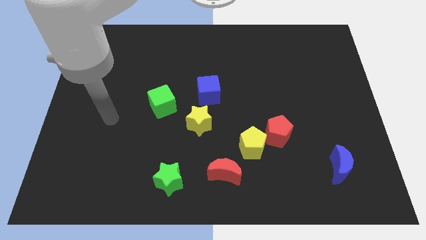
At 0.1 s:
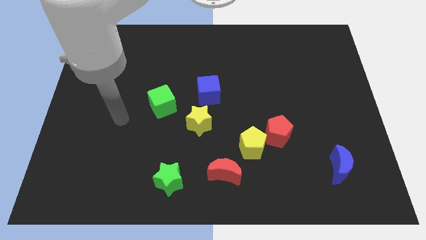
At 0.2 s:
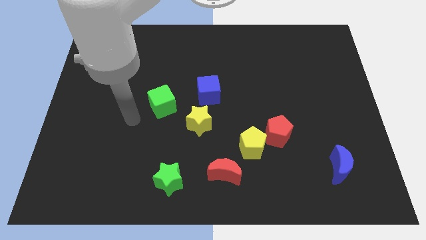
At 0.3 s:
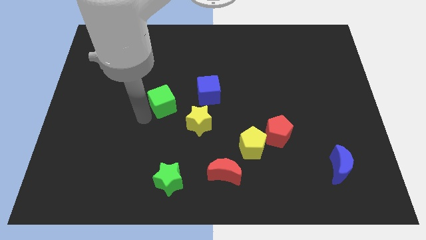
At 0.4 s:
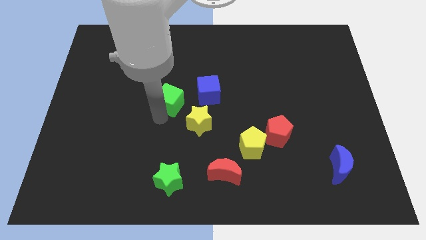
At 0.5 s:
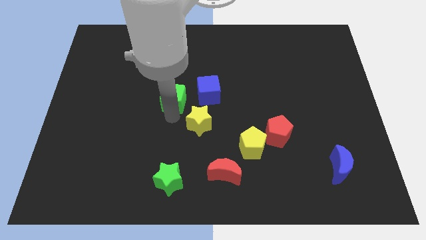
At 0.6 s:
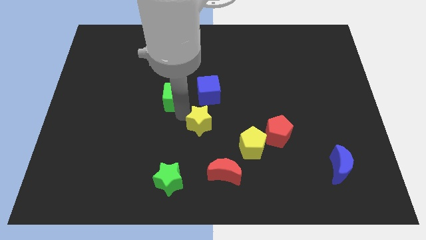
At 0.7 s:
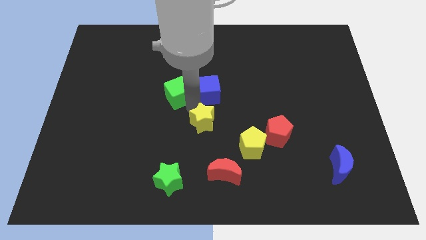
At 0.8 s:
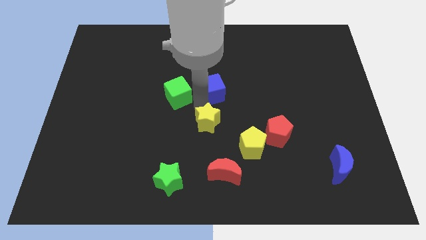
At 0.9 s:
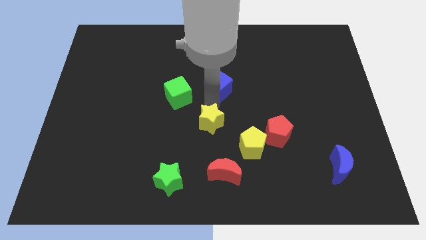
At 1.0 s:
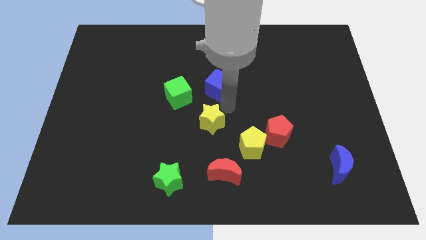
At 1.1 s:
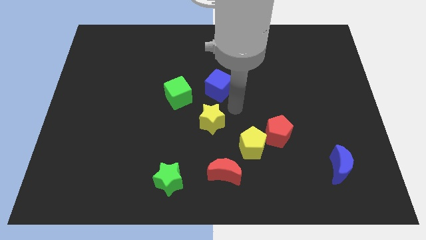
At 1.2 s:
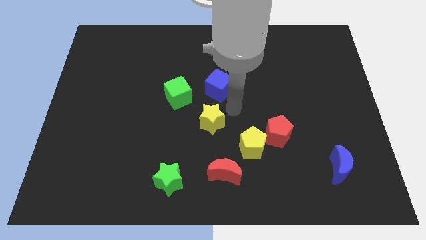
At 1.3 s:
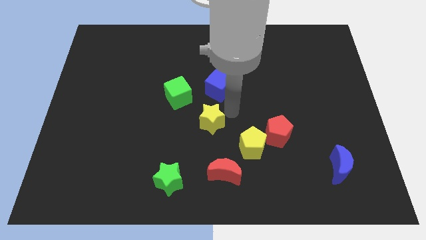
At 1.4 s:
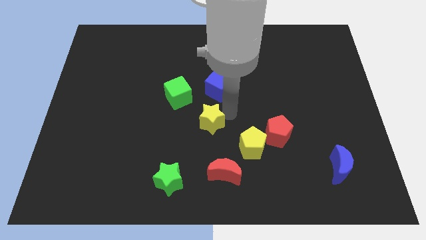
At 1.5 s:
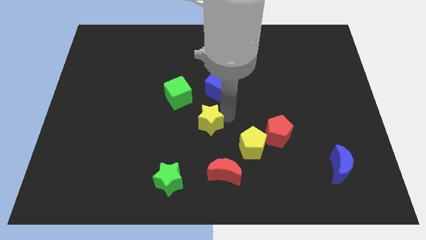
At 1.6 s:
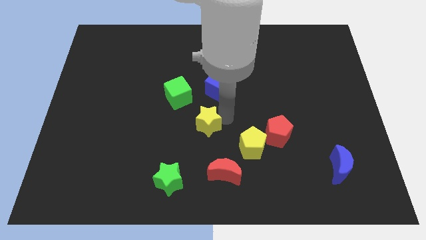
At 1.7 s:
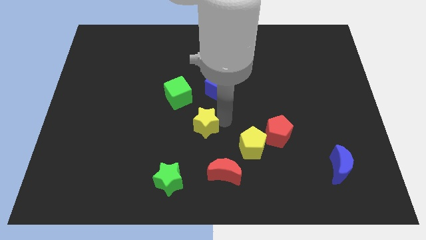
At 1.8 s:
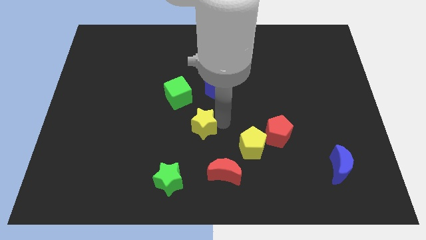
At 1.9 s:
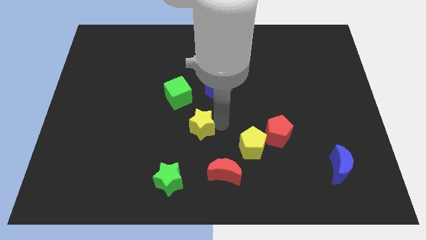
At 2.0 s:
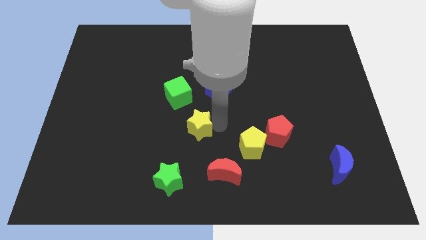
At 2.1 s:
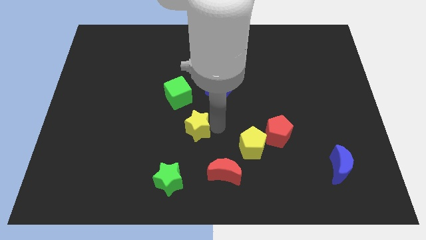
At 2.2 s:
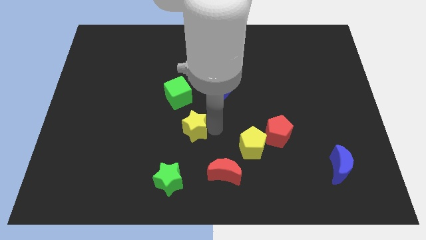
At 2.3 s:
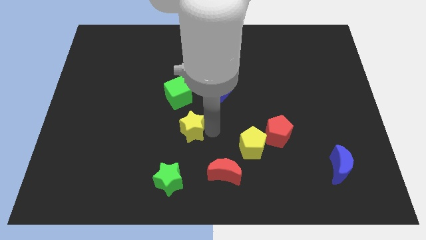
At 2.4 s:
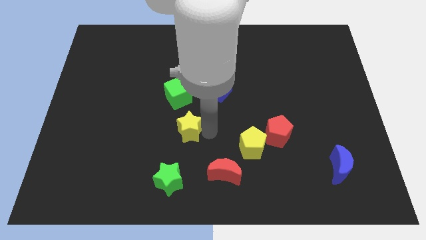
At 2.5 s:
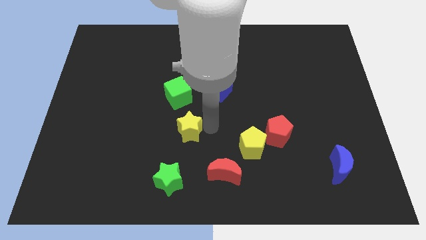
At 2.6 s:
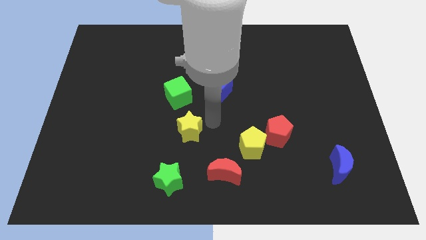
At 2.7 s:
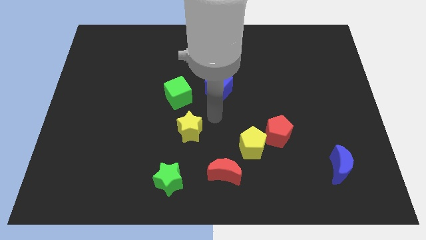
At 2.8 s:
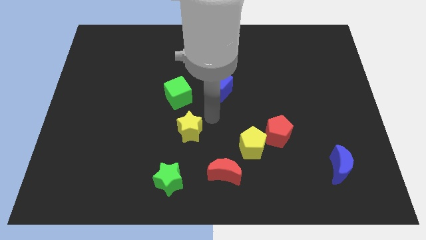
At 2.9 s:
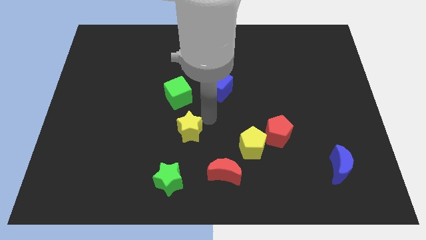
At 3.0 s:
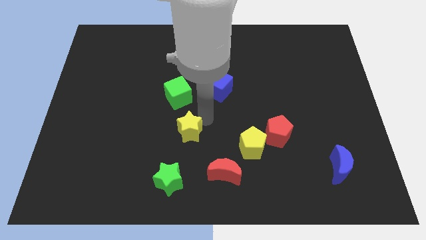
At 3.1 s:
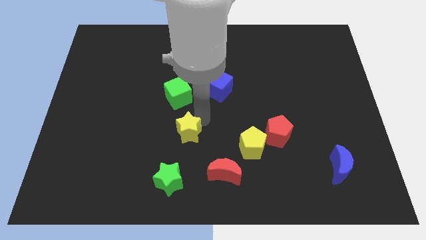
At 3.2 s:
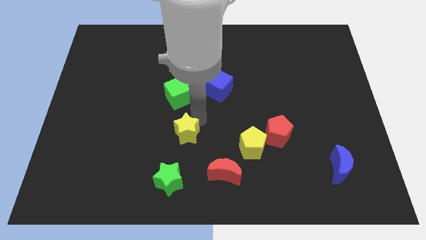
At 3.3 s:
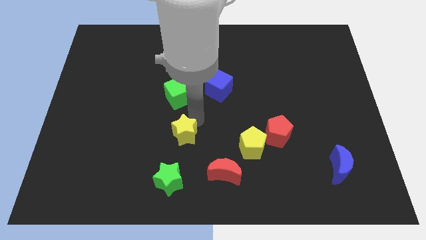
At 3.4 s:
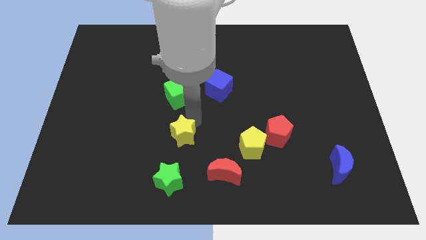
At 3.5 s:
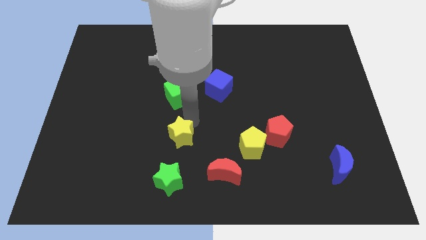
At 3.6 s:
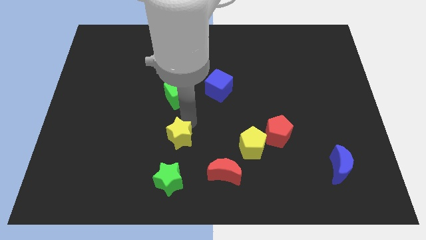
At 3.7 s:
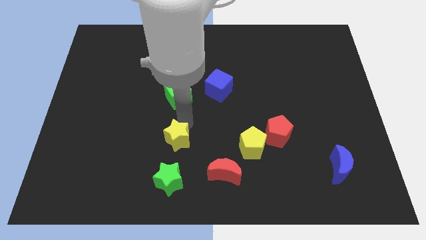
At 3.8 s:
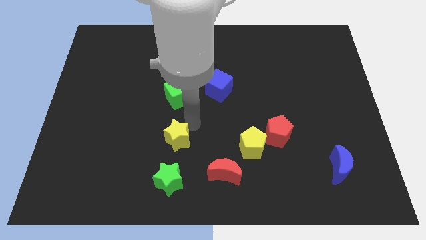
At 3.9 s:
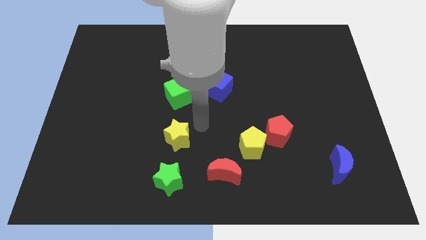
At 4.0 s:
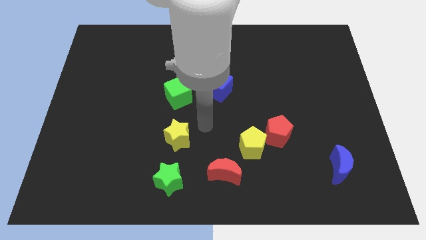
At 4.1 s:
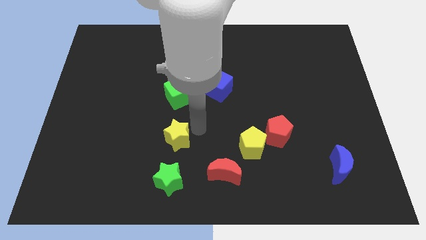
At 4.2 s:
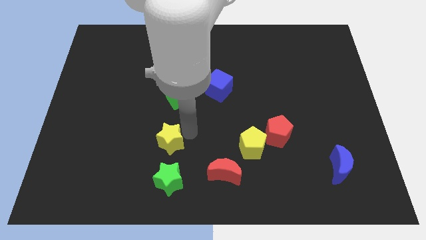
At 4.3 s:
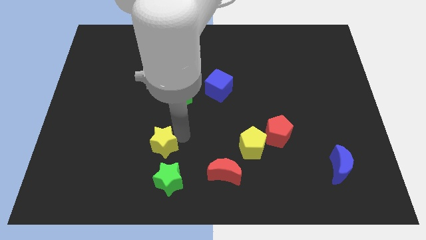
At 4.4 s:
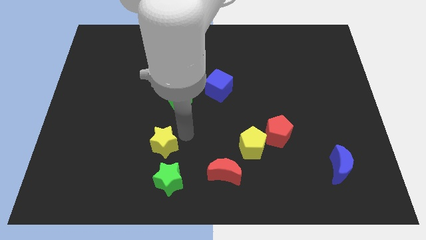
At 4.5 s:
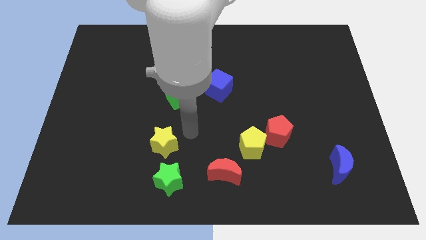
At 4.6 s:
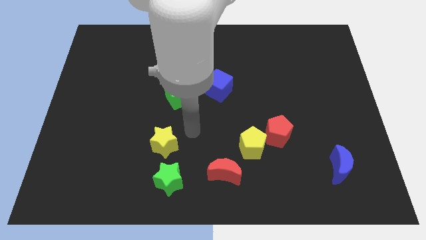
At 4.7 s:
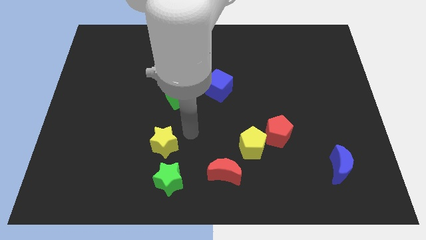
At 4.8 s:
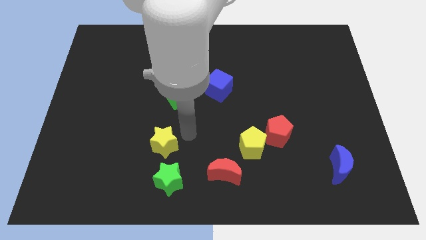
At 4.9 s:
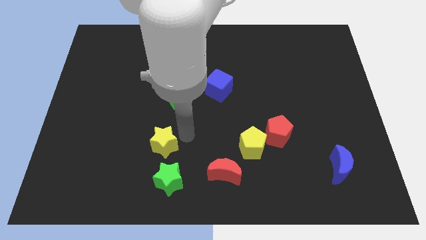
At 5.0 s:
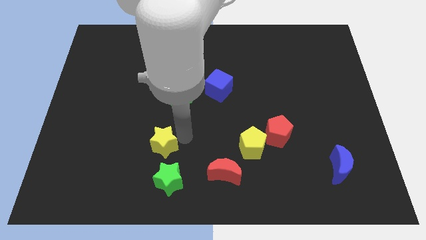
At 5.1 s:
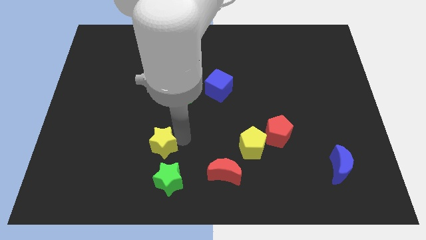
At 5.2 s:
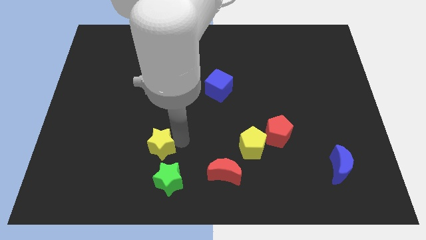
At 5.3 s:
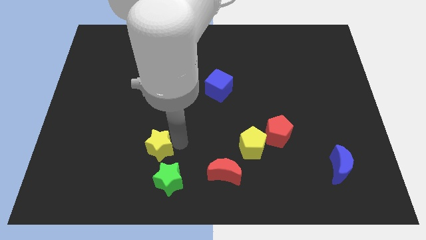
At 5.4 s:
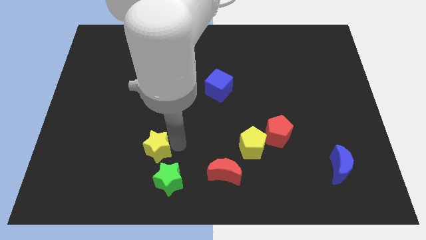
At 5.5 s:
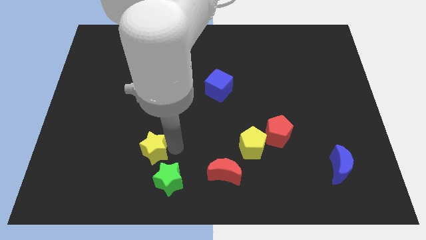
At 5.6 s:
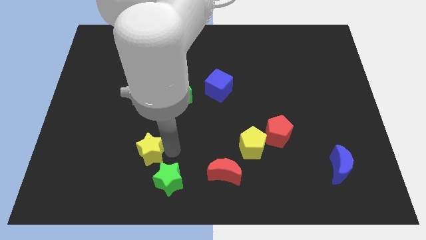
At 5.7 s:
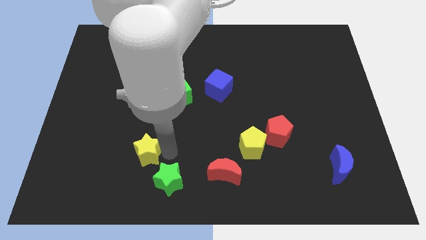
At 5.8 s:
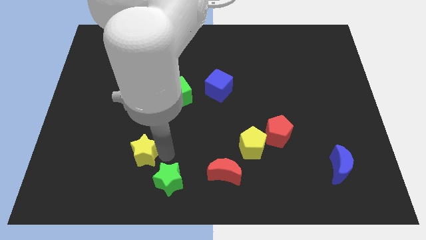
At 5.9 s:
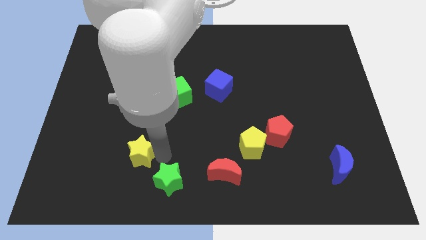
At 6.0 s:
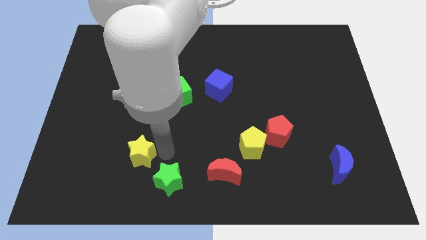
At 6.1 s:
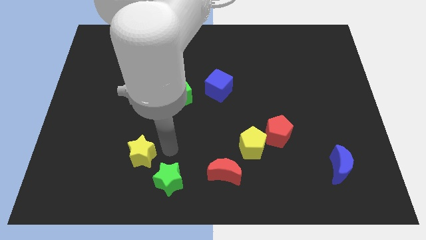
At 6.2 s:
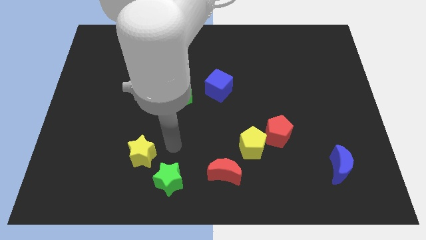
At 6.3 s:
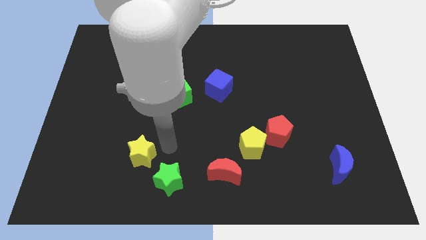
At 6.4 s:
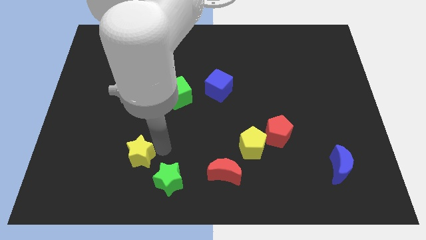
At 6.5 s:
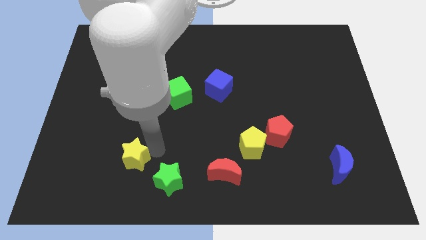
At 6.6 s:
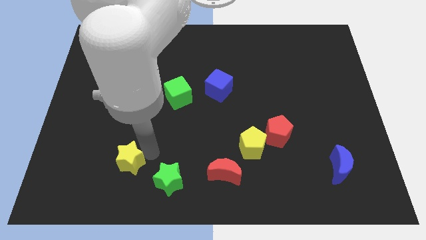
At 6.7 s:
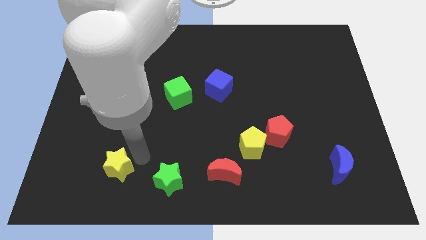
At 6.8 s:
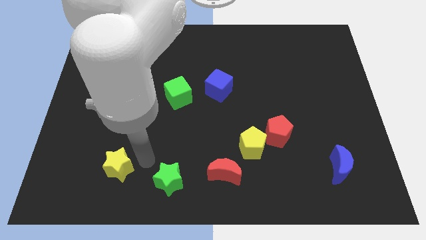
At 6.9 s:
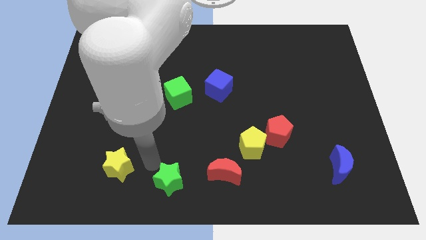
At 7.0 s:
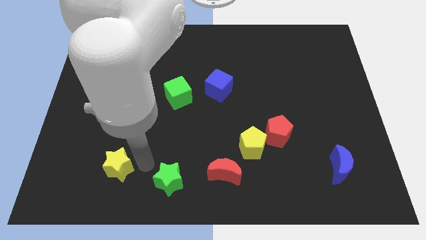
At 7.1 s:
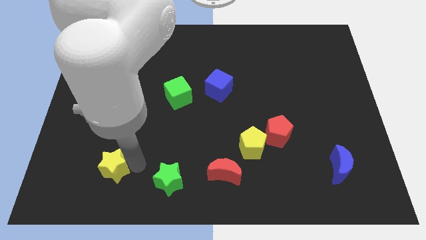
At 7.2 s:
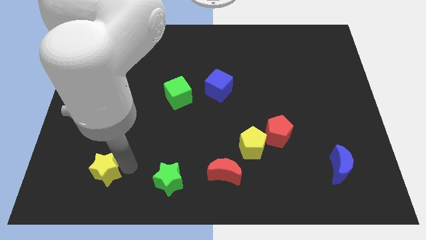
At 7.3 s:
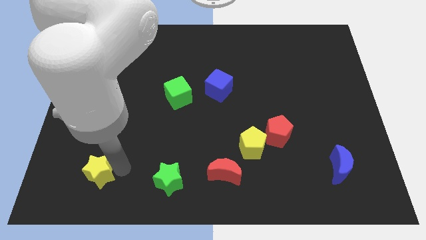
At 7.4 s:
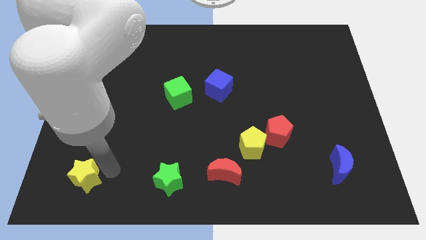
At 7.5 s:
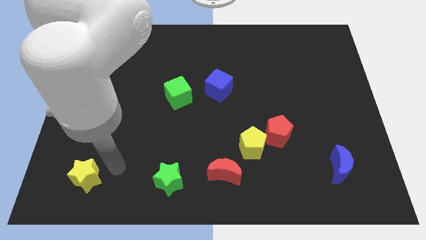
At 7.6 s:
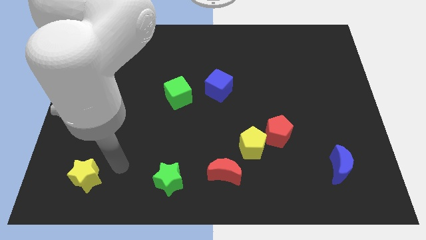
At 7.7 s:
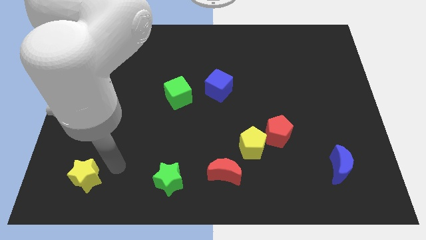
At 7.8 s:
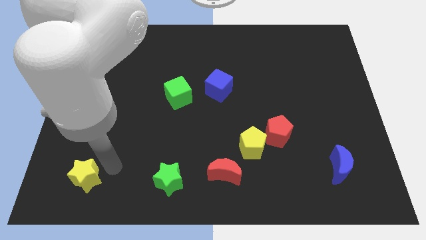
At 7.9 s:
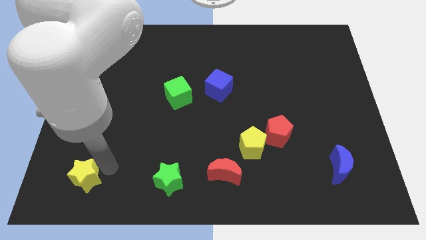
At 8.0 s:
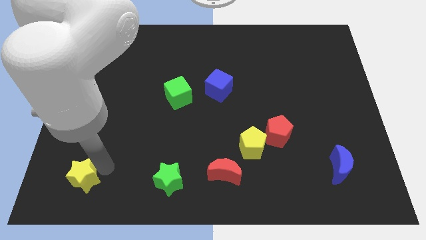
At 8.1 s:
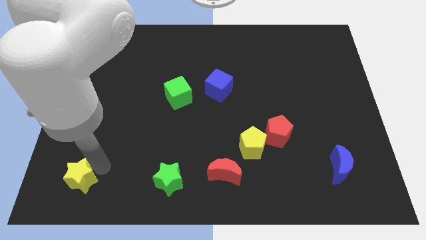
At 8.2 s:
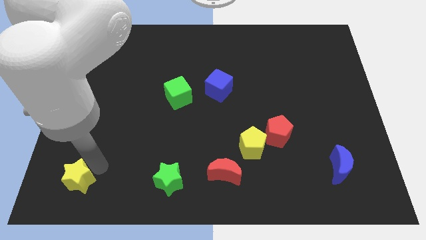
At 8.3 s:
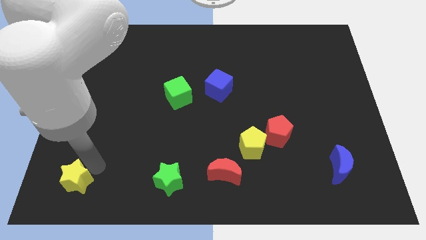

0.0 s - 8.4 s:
move the yellow star to the lower left corner
